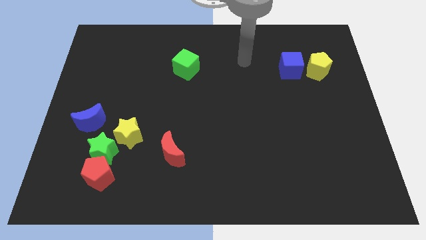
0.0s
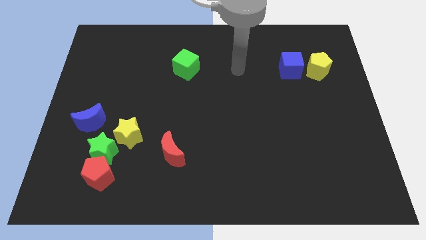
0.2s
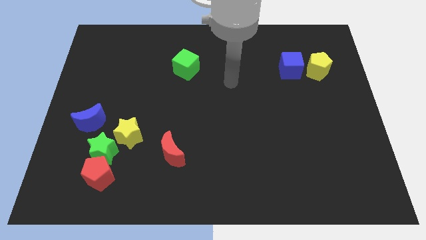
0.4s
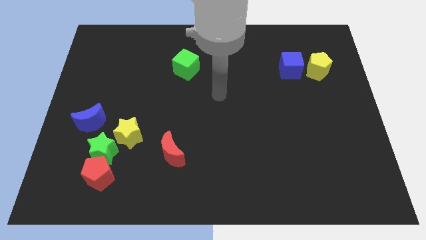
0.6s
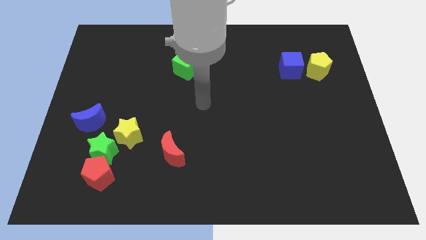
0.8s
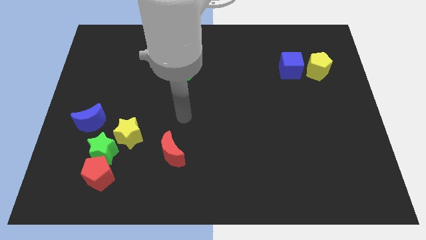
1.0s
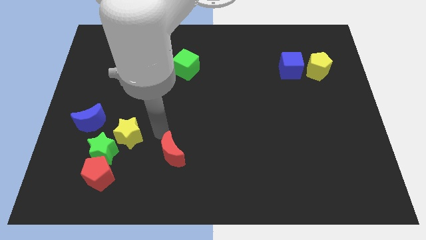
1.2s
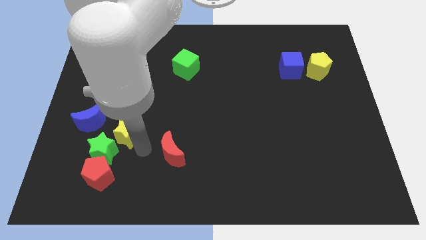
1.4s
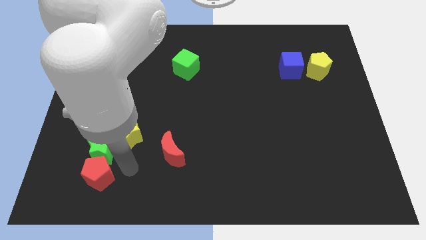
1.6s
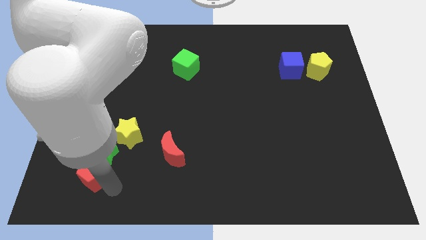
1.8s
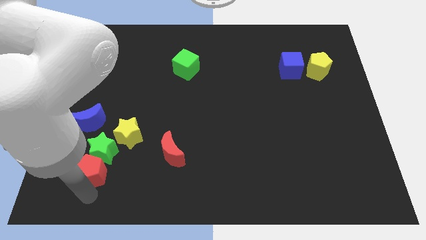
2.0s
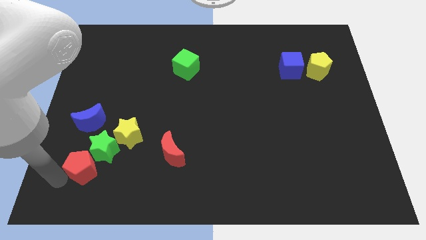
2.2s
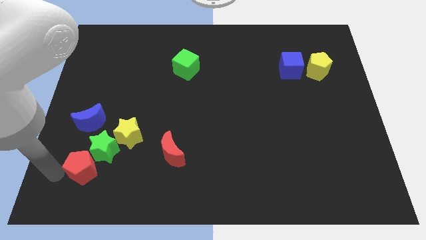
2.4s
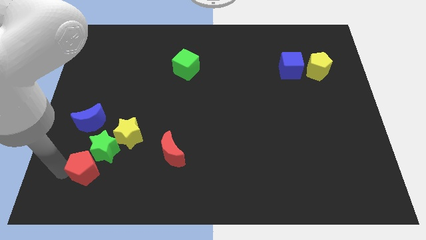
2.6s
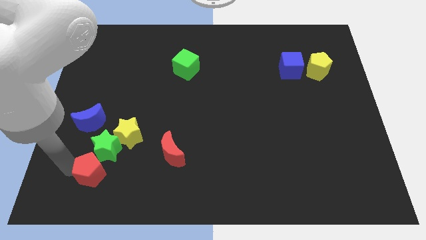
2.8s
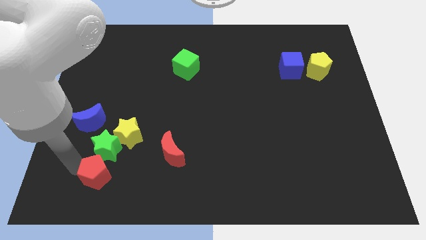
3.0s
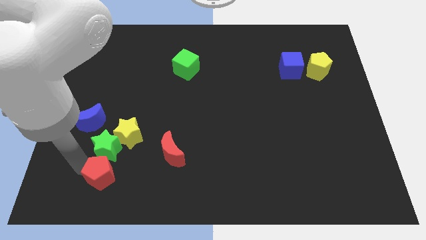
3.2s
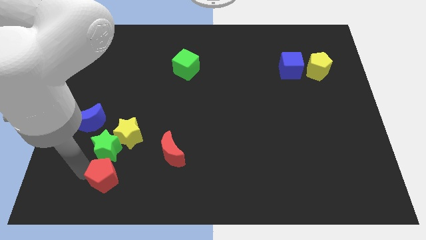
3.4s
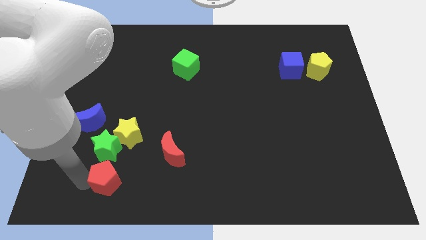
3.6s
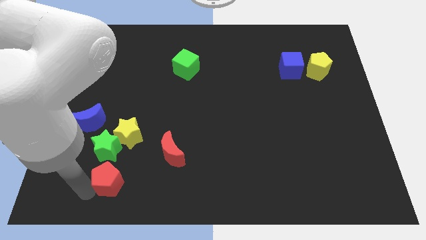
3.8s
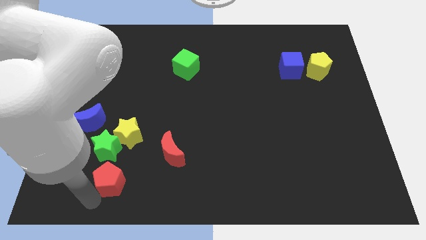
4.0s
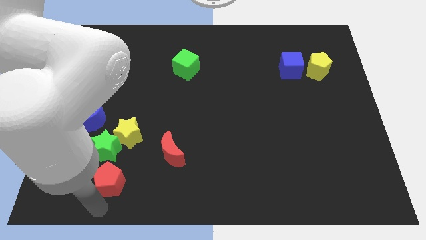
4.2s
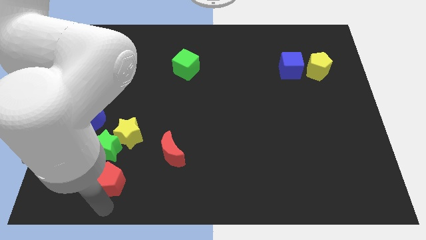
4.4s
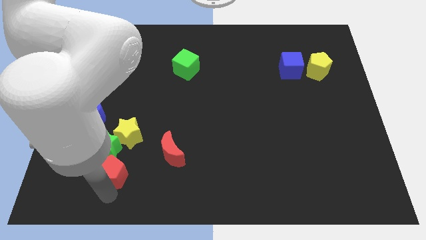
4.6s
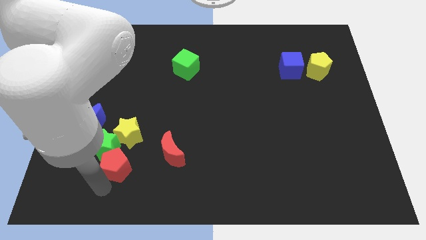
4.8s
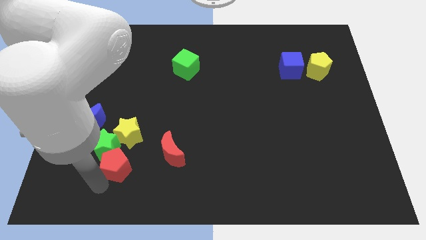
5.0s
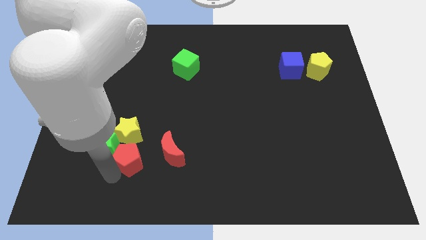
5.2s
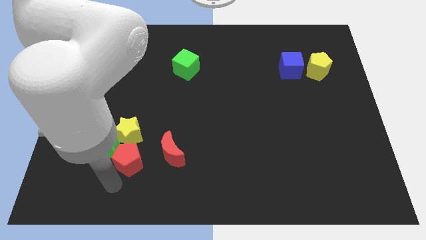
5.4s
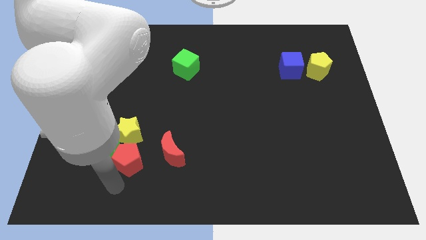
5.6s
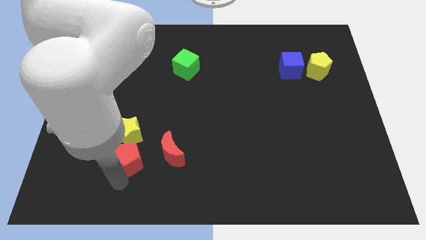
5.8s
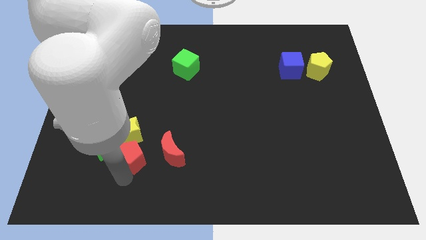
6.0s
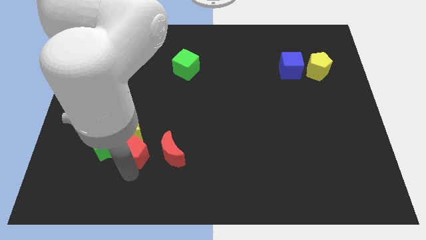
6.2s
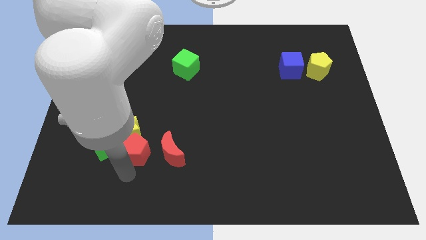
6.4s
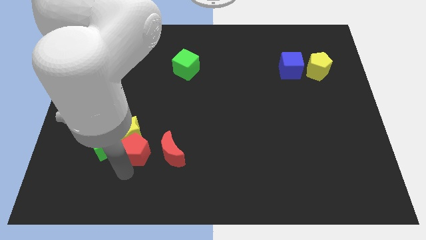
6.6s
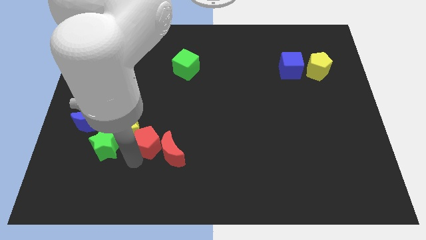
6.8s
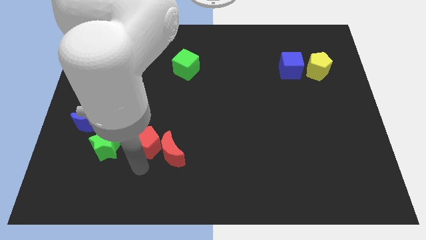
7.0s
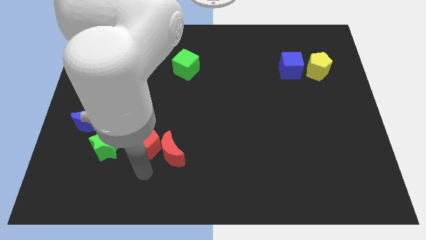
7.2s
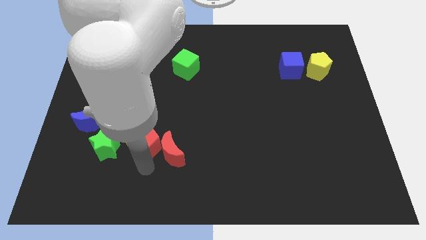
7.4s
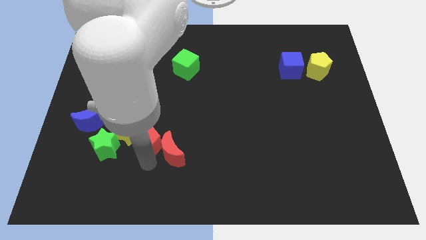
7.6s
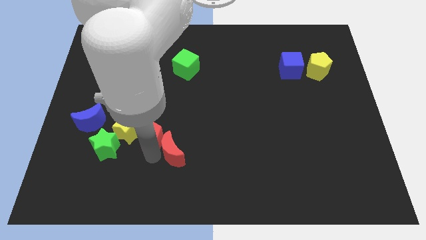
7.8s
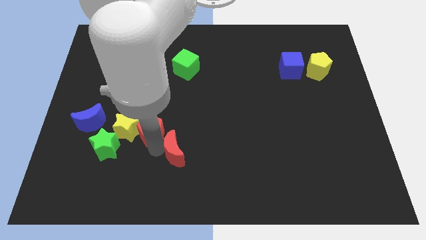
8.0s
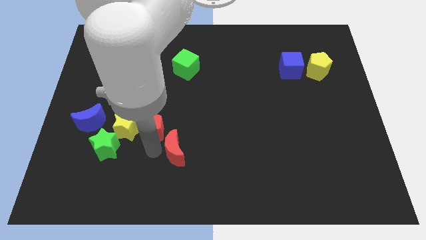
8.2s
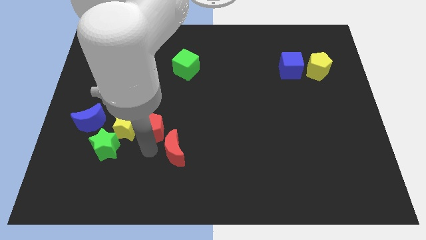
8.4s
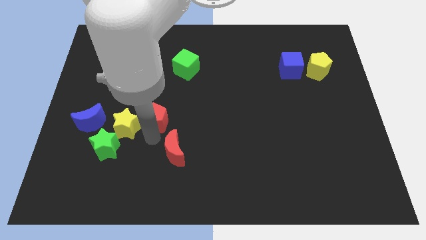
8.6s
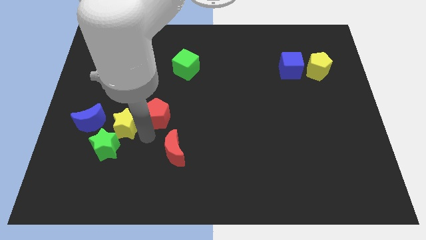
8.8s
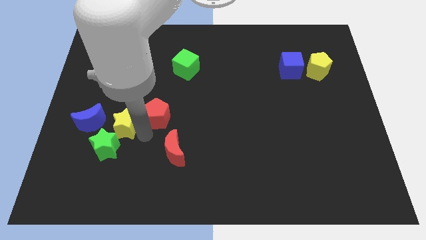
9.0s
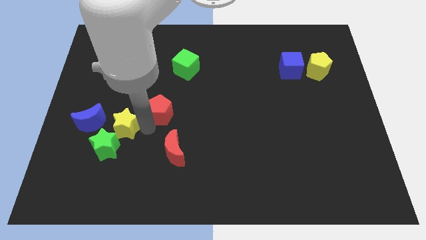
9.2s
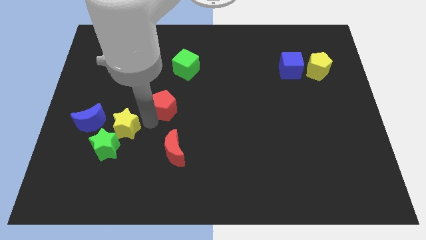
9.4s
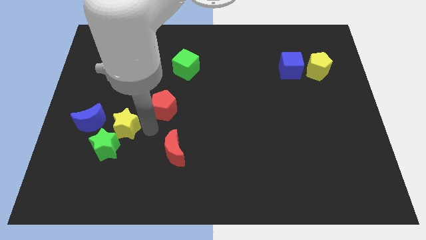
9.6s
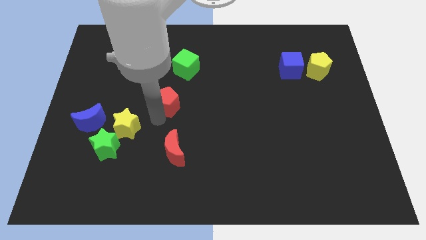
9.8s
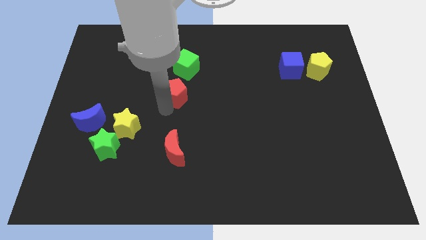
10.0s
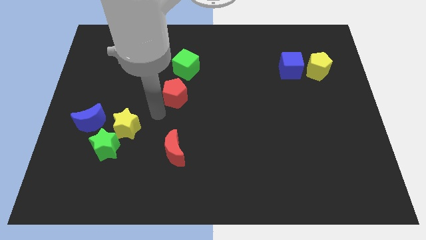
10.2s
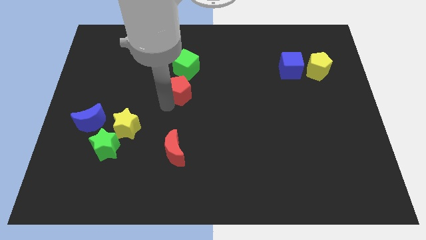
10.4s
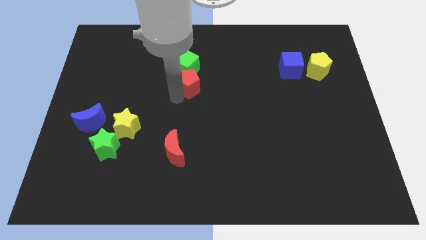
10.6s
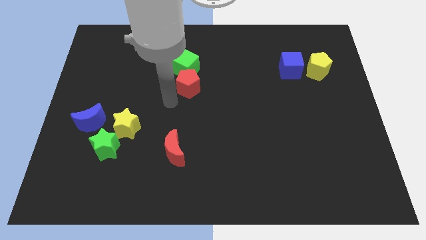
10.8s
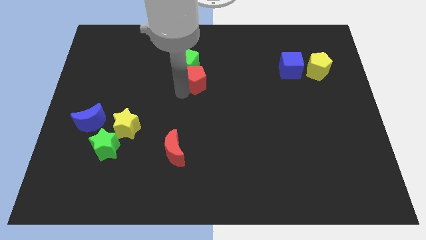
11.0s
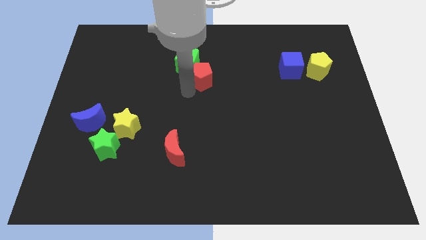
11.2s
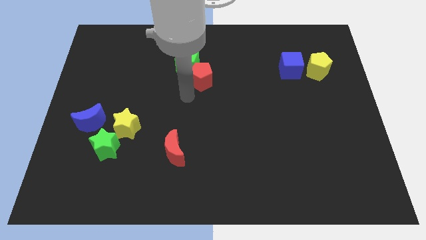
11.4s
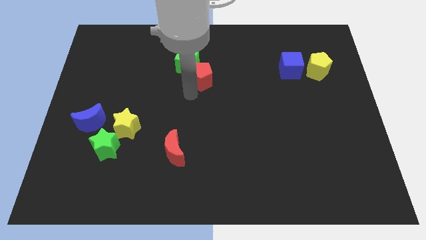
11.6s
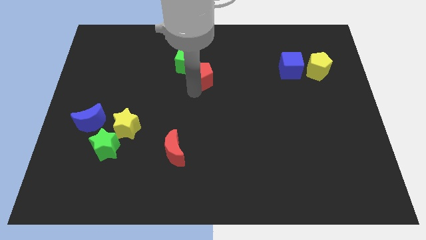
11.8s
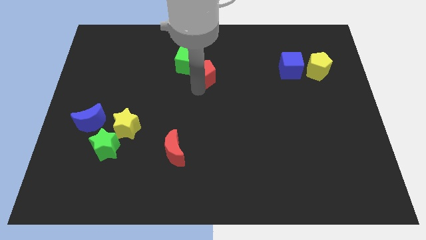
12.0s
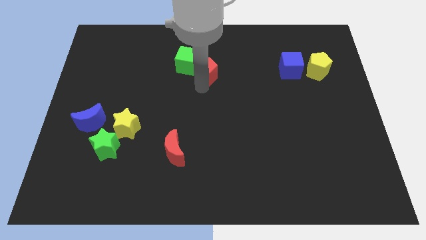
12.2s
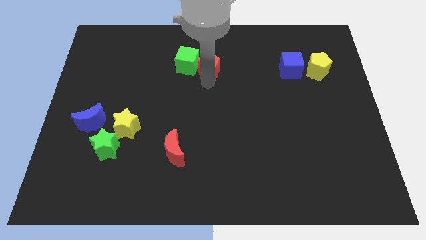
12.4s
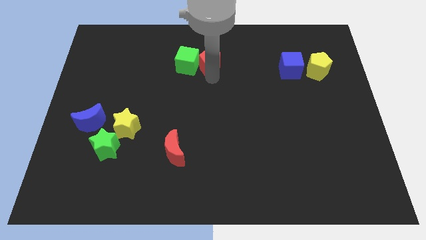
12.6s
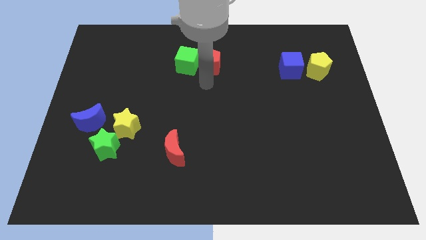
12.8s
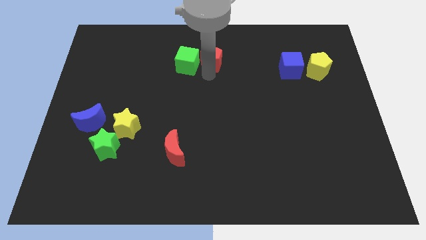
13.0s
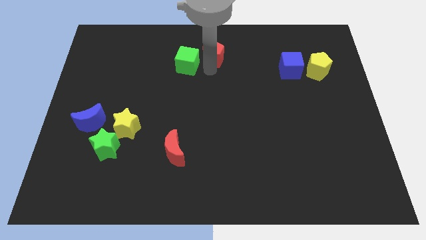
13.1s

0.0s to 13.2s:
put the red pentagon to the towards your base

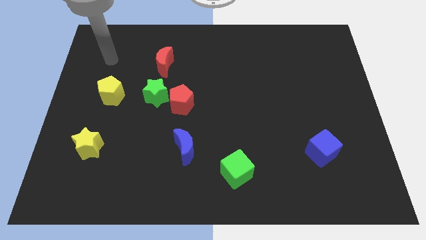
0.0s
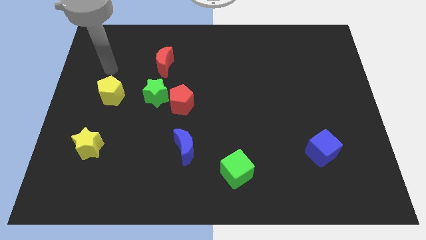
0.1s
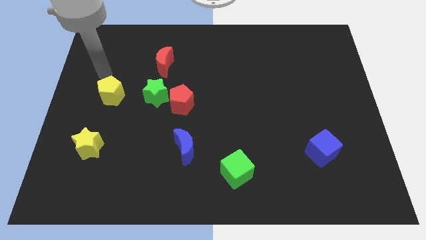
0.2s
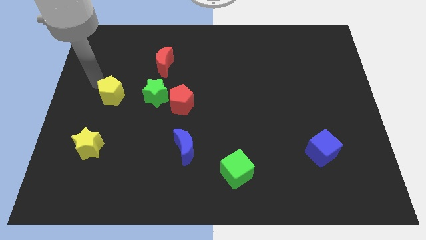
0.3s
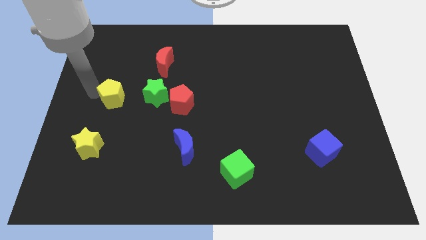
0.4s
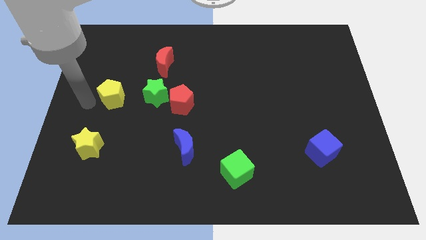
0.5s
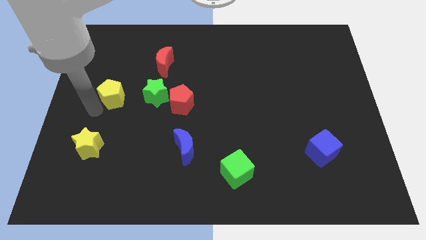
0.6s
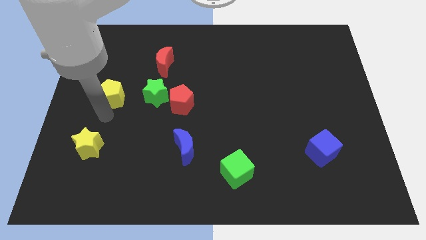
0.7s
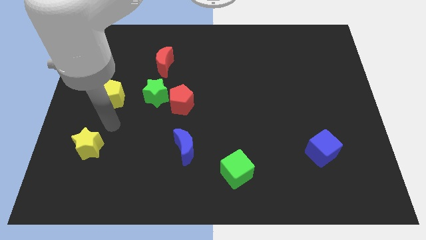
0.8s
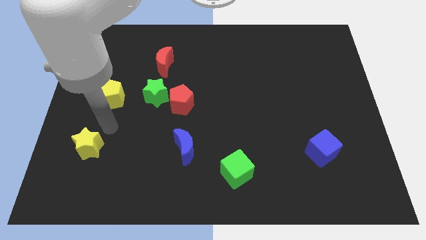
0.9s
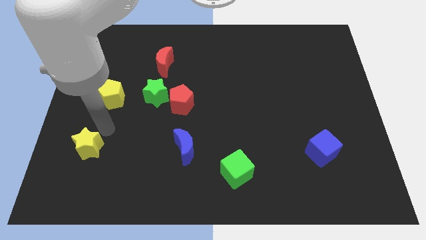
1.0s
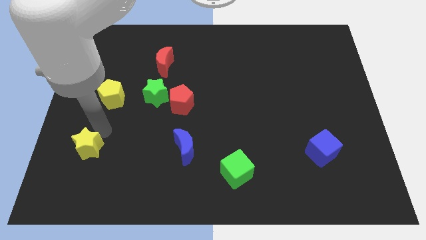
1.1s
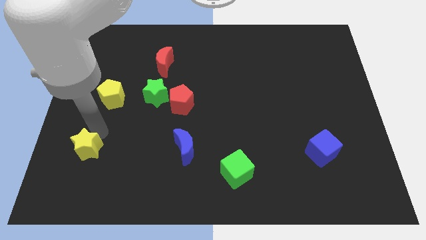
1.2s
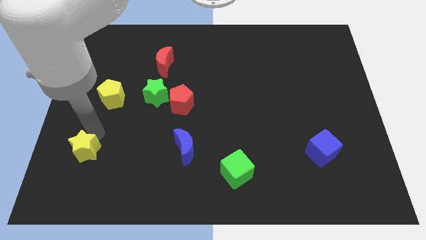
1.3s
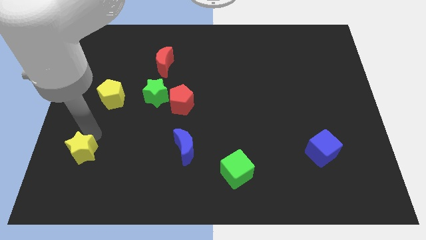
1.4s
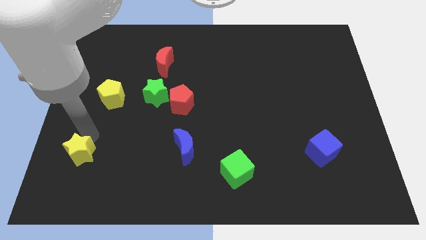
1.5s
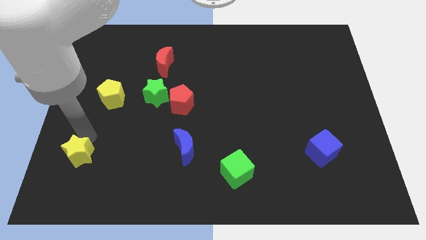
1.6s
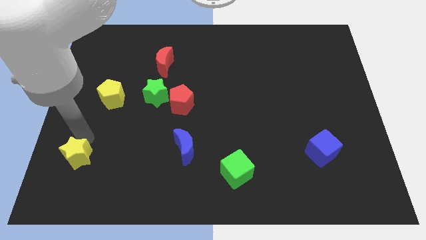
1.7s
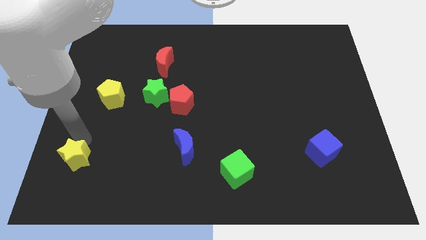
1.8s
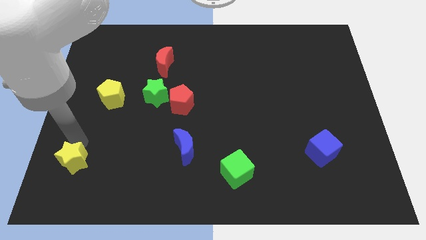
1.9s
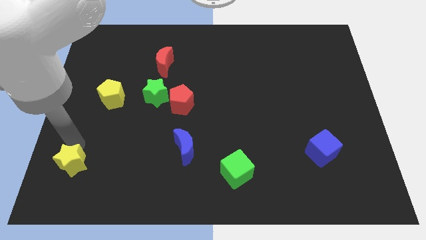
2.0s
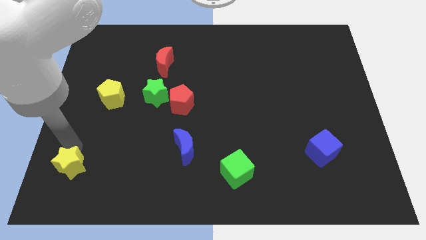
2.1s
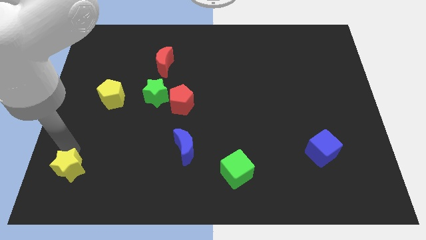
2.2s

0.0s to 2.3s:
push the yellow star to the bottom left corner
